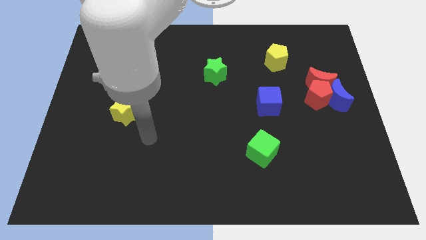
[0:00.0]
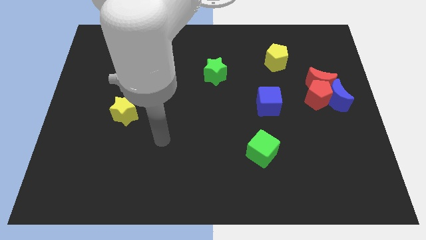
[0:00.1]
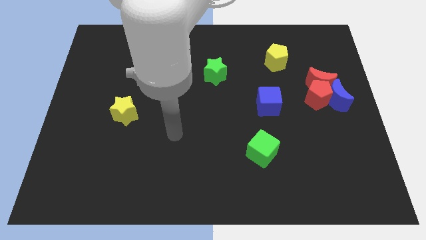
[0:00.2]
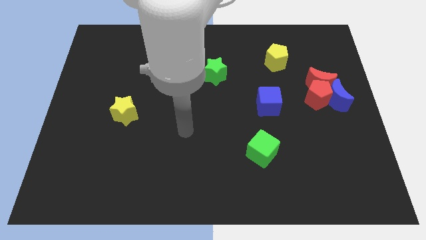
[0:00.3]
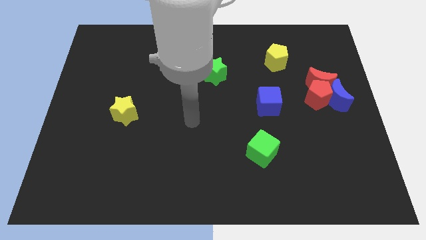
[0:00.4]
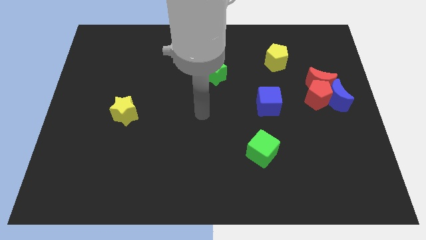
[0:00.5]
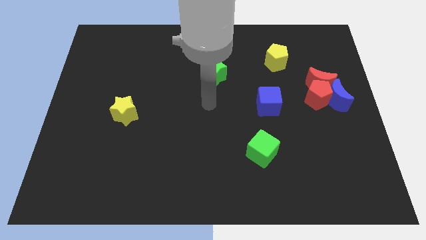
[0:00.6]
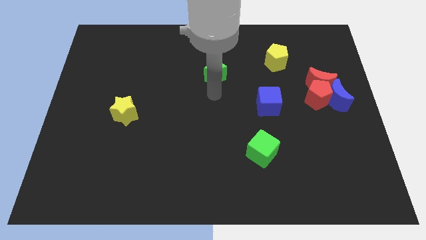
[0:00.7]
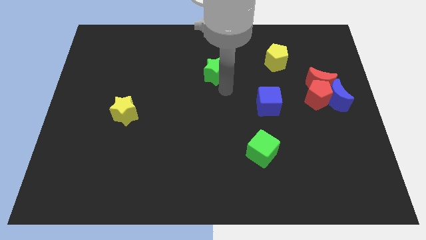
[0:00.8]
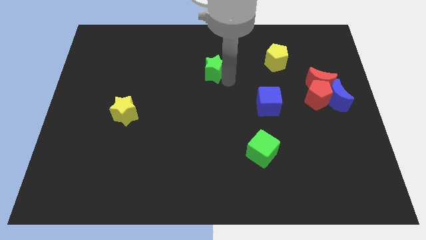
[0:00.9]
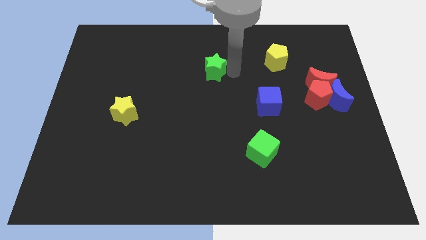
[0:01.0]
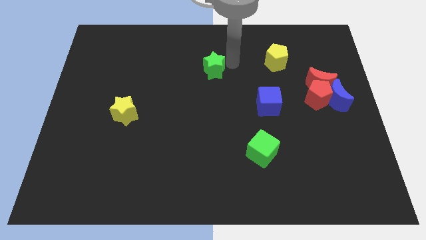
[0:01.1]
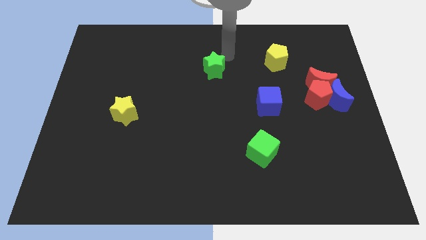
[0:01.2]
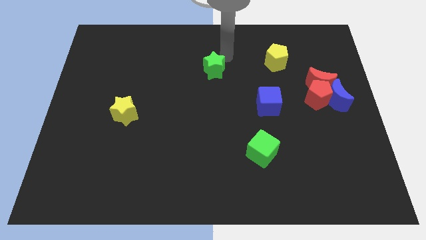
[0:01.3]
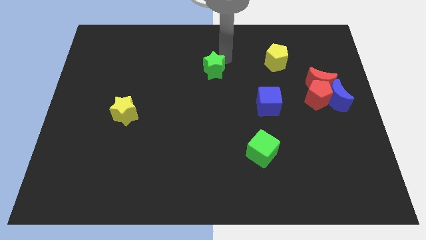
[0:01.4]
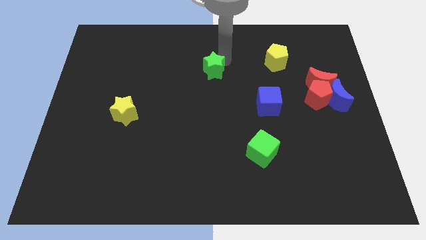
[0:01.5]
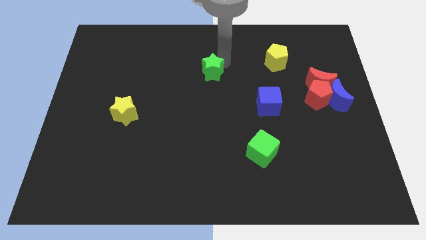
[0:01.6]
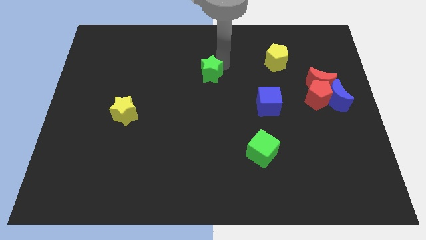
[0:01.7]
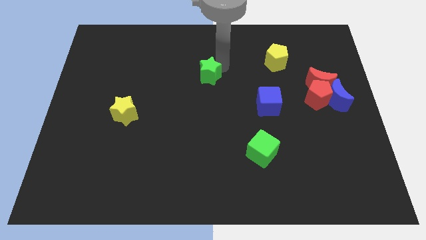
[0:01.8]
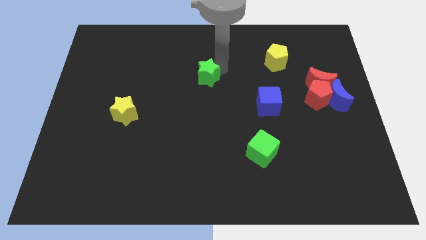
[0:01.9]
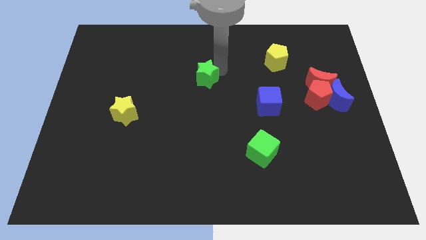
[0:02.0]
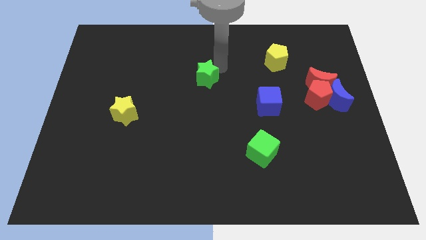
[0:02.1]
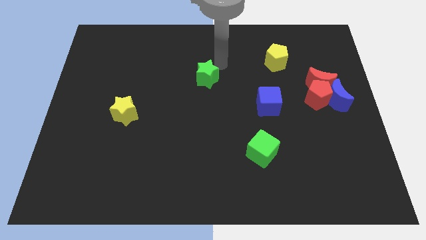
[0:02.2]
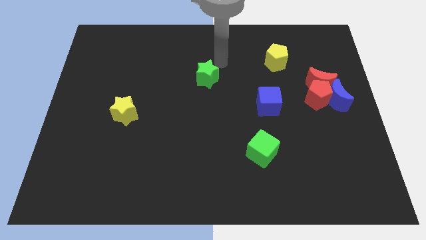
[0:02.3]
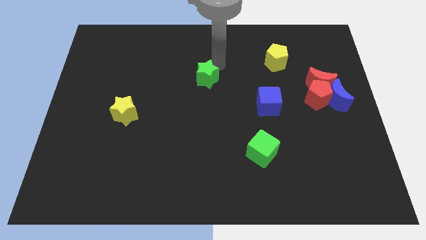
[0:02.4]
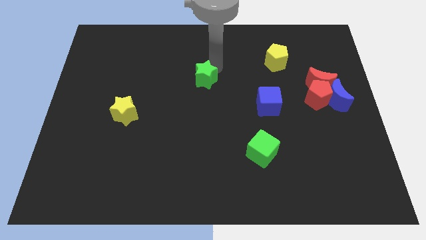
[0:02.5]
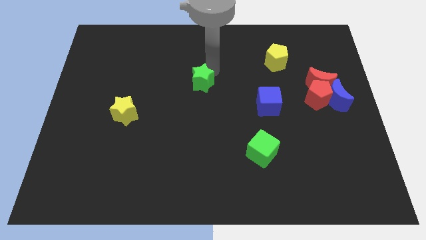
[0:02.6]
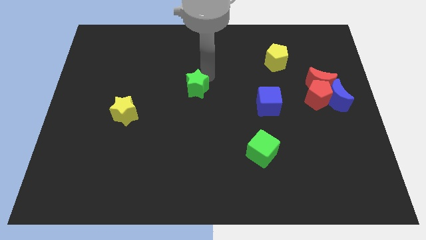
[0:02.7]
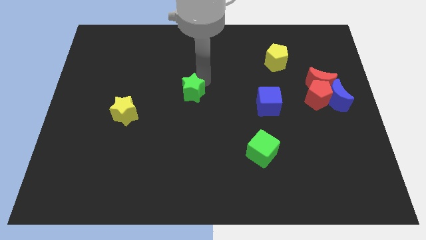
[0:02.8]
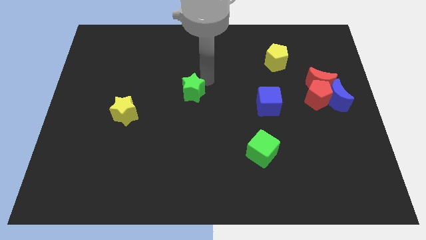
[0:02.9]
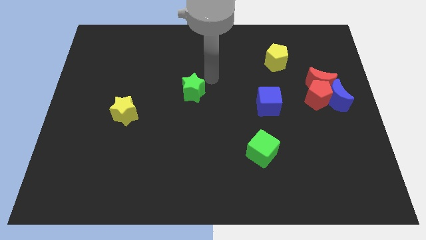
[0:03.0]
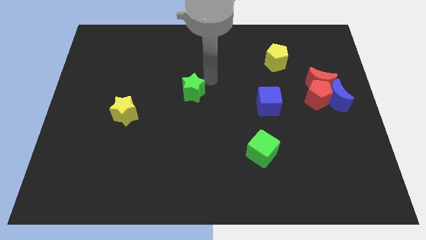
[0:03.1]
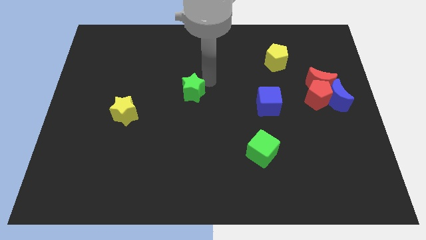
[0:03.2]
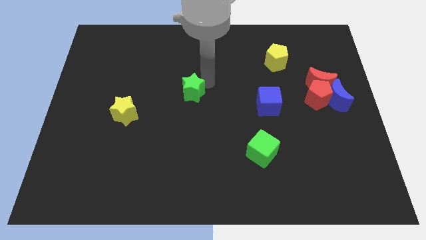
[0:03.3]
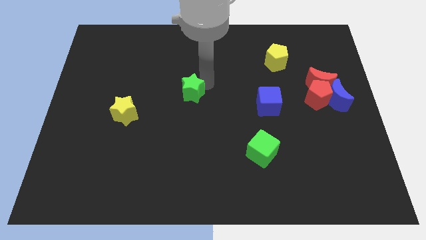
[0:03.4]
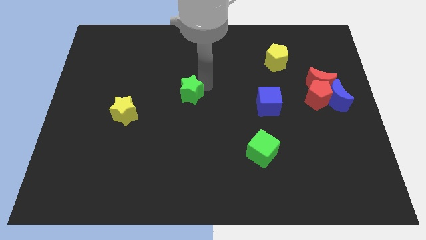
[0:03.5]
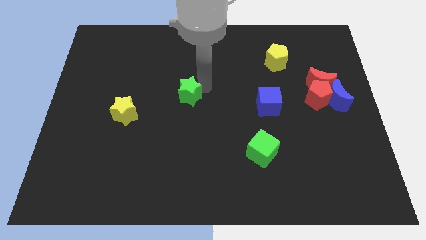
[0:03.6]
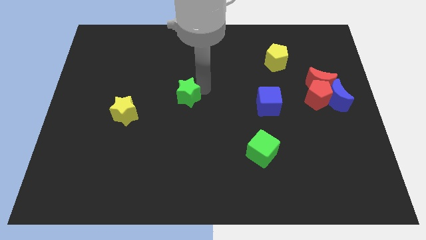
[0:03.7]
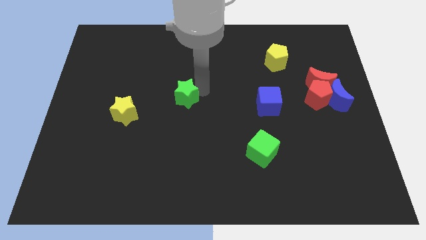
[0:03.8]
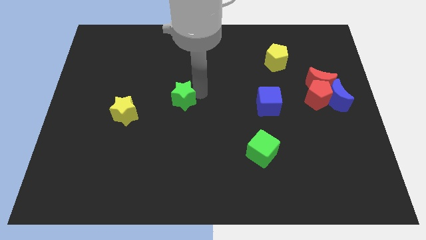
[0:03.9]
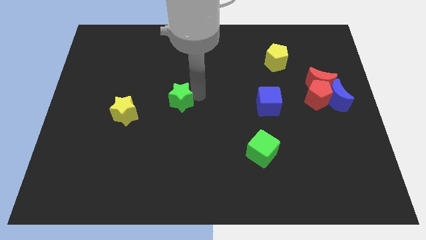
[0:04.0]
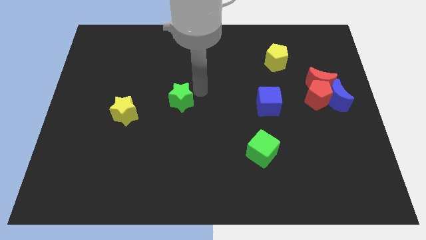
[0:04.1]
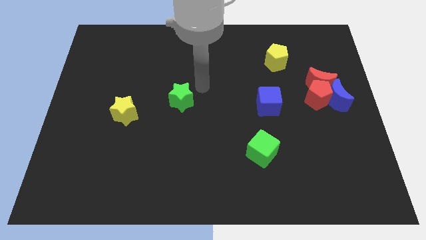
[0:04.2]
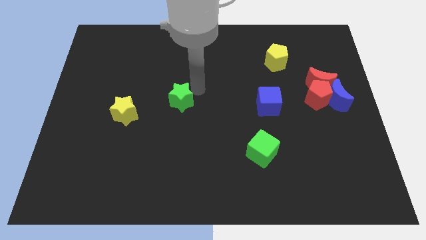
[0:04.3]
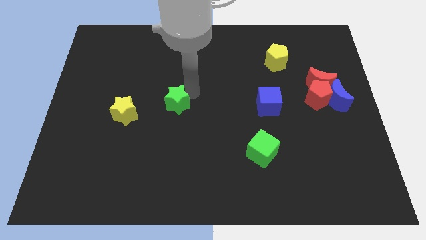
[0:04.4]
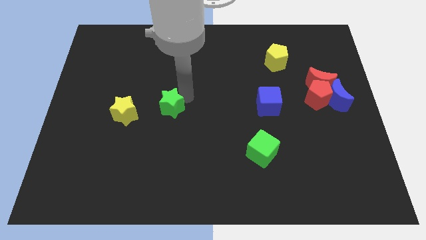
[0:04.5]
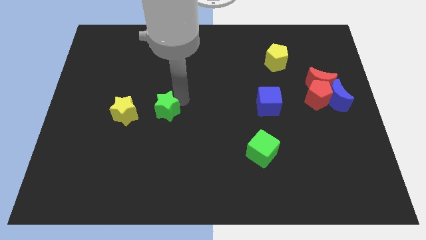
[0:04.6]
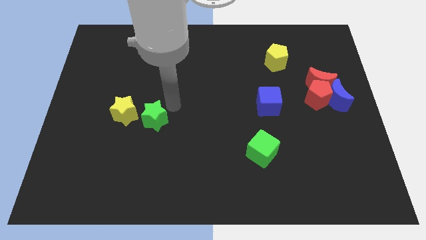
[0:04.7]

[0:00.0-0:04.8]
slide the green star down and left diagonally

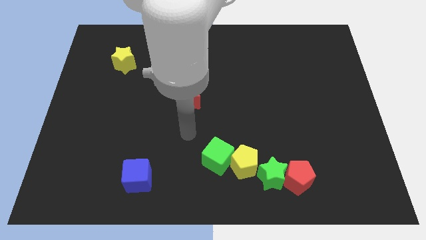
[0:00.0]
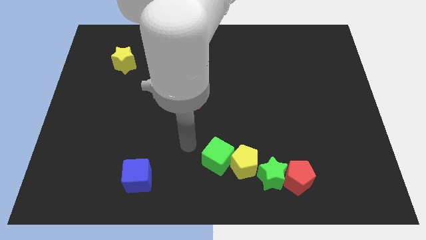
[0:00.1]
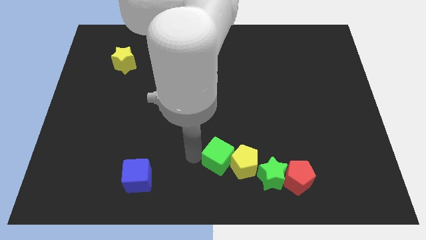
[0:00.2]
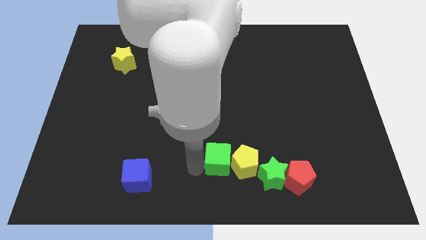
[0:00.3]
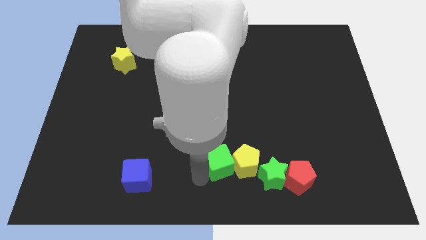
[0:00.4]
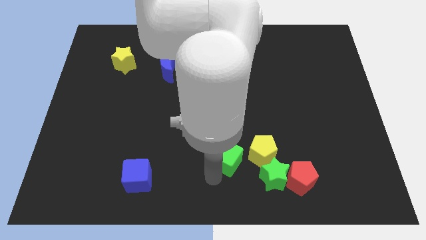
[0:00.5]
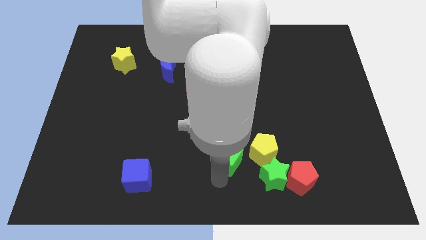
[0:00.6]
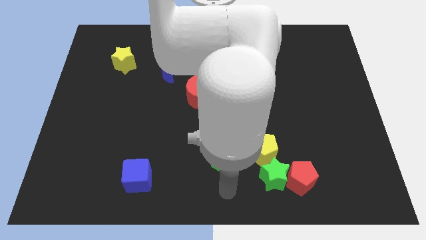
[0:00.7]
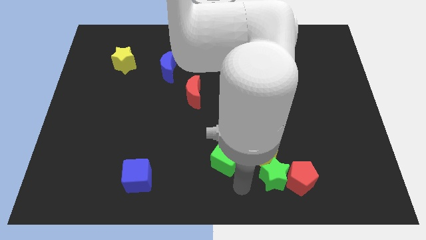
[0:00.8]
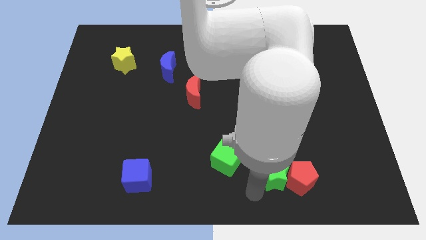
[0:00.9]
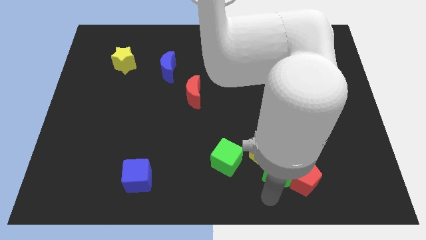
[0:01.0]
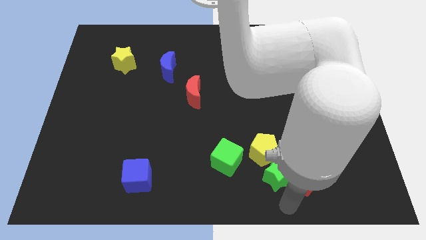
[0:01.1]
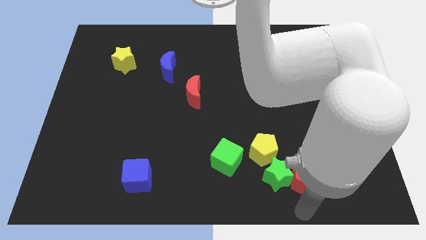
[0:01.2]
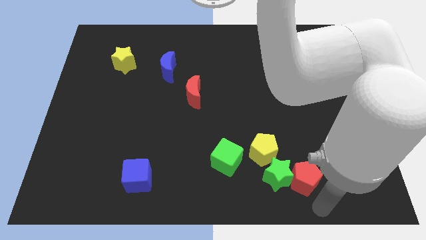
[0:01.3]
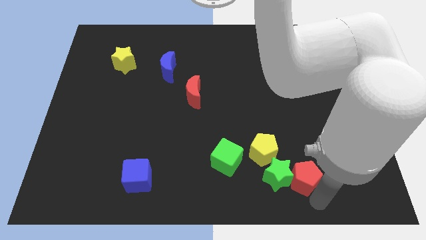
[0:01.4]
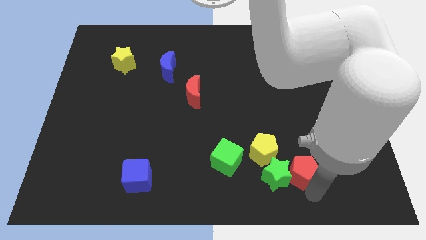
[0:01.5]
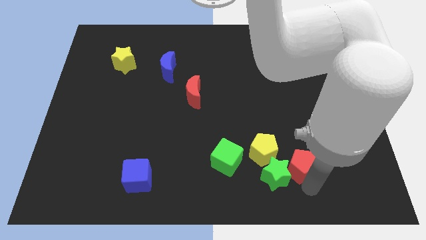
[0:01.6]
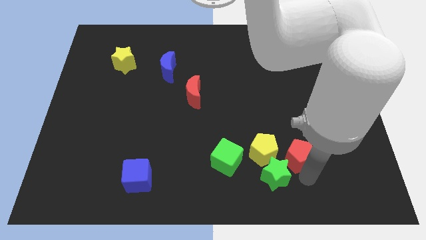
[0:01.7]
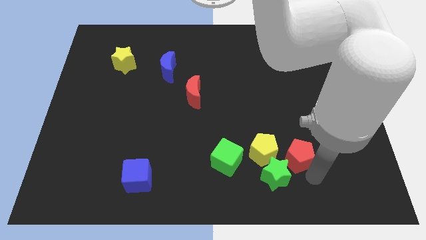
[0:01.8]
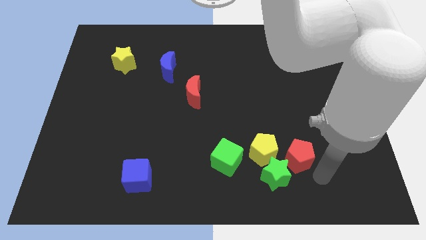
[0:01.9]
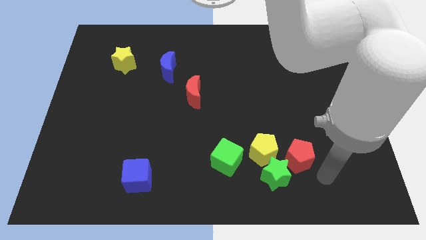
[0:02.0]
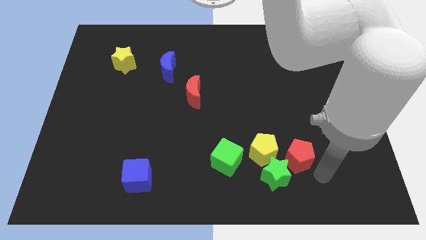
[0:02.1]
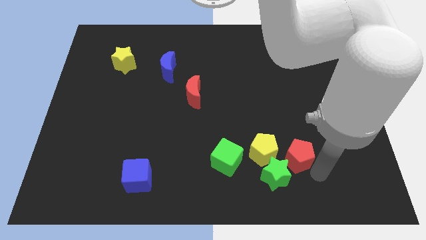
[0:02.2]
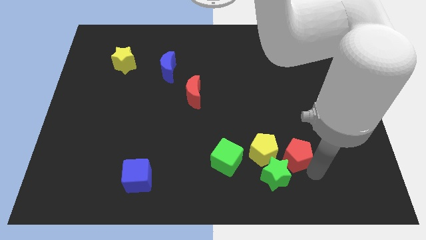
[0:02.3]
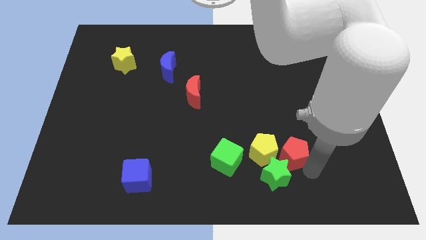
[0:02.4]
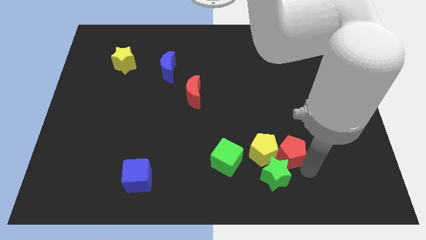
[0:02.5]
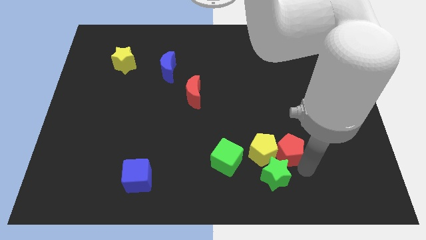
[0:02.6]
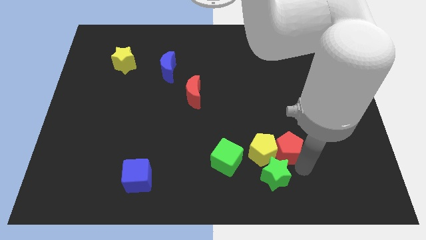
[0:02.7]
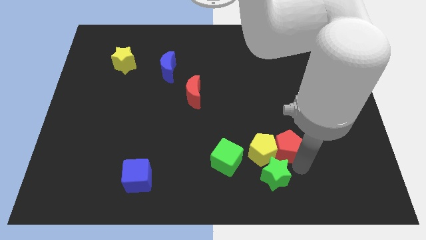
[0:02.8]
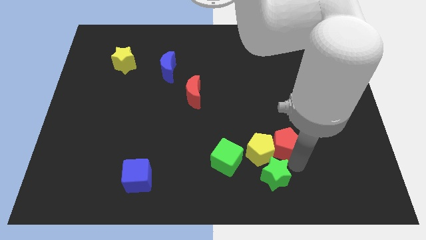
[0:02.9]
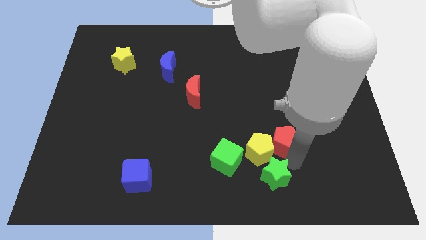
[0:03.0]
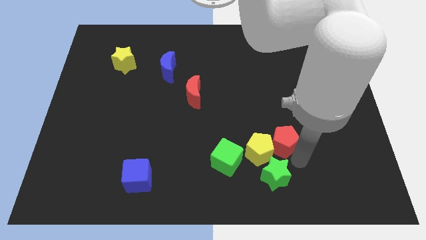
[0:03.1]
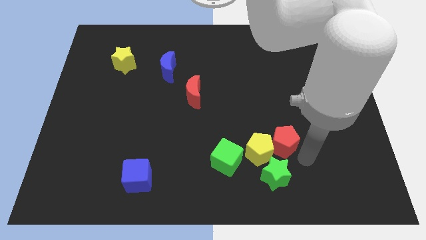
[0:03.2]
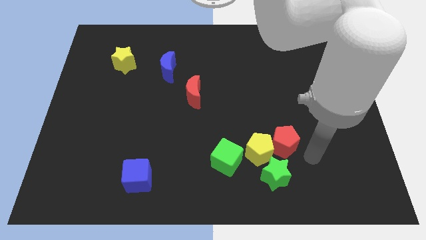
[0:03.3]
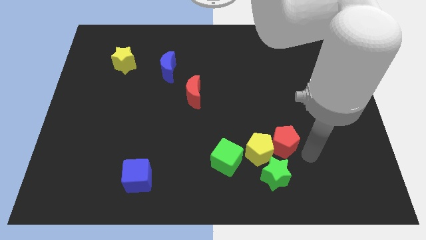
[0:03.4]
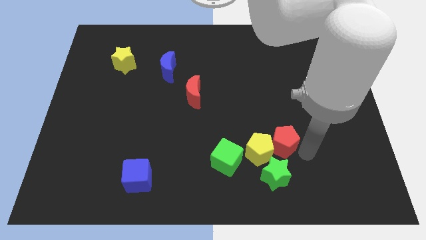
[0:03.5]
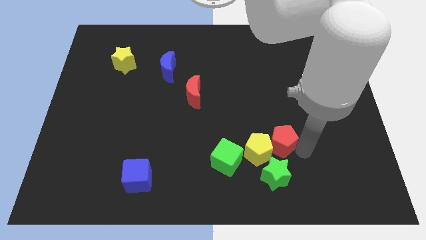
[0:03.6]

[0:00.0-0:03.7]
slightly push the red pentagon diagonally up and to the left
